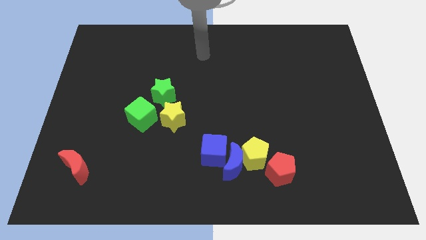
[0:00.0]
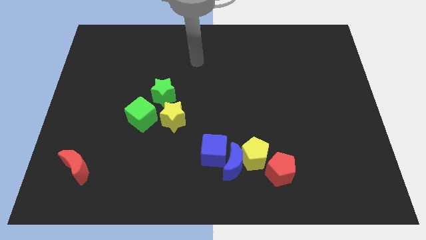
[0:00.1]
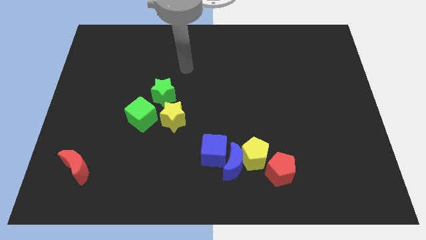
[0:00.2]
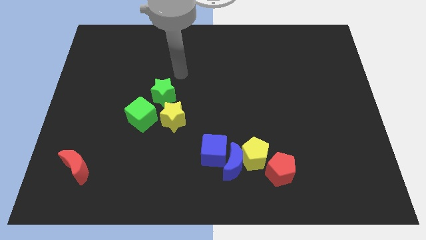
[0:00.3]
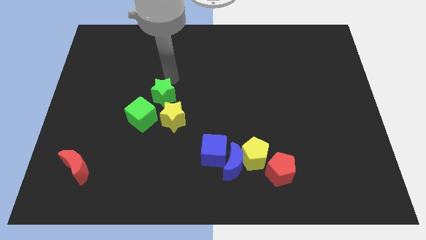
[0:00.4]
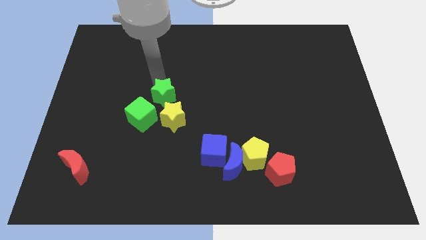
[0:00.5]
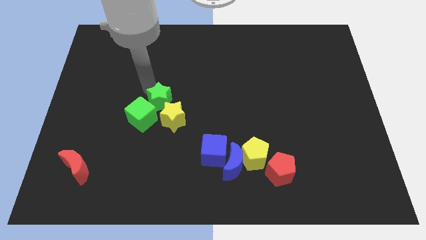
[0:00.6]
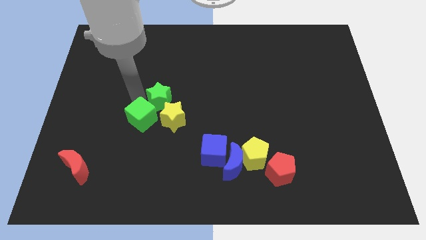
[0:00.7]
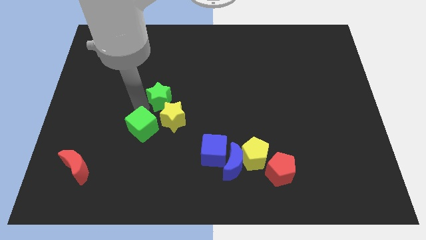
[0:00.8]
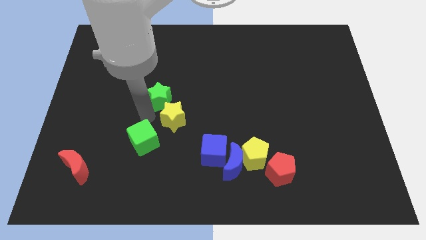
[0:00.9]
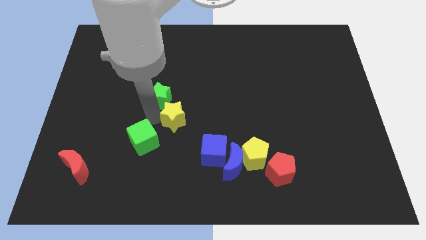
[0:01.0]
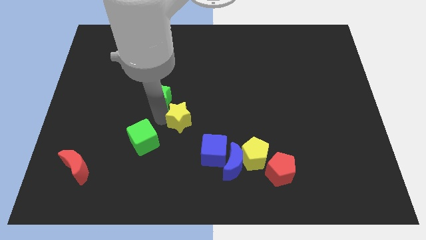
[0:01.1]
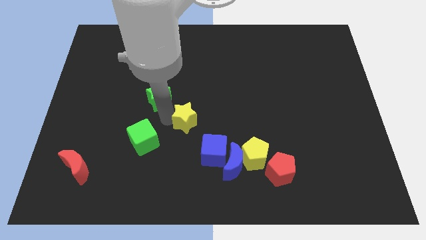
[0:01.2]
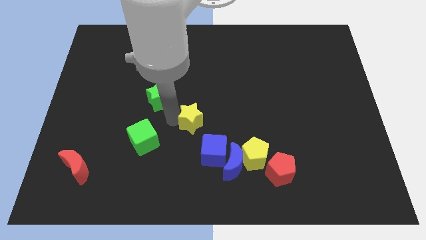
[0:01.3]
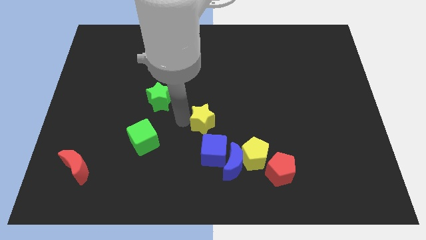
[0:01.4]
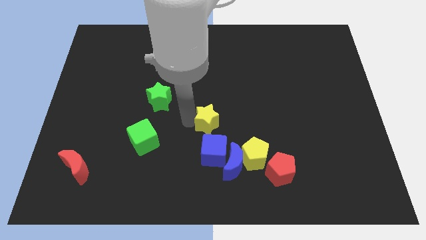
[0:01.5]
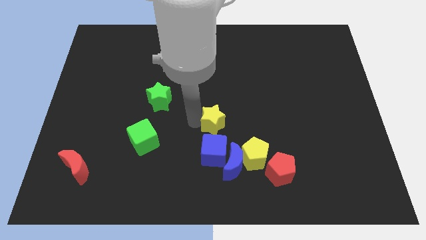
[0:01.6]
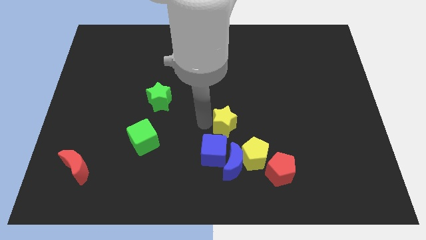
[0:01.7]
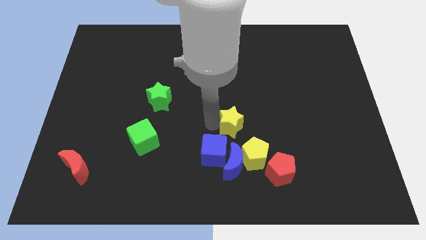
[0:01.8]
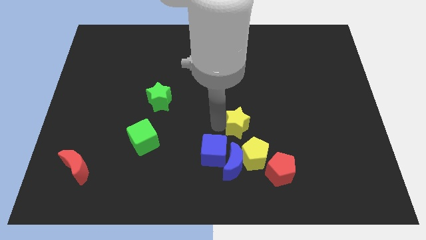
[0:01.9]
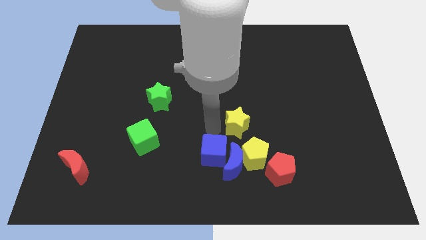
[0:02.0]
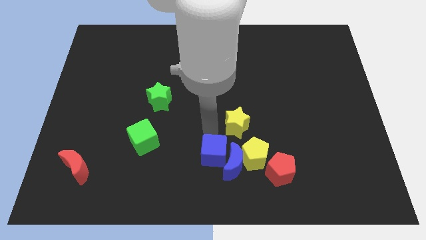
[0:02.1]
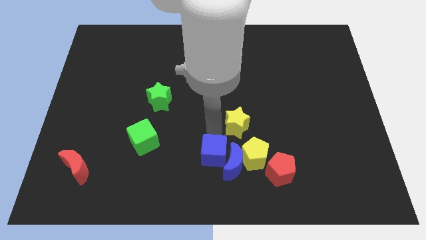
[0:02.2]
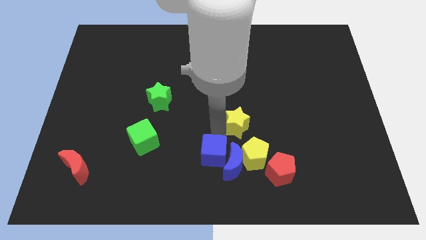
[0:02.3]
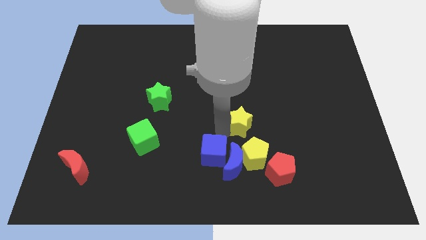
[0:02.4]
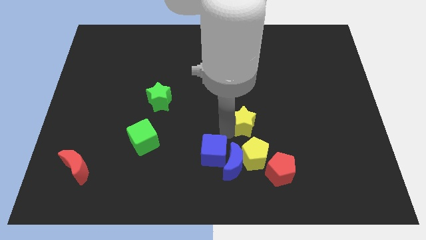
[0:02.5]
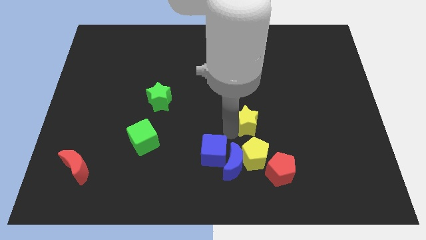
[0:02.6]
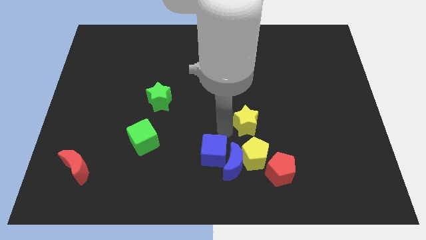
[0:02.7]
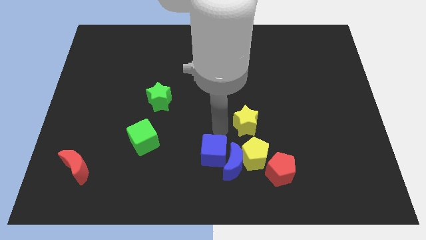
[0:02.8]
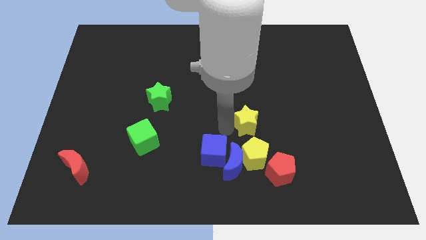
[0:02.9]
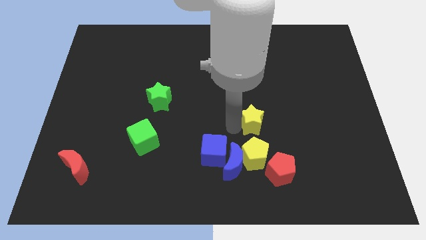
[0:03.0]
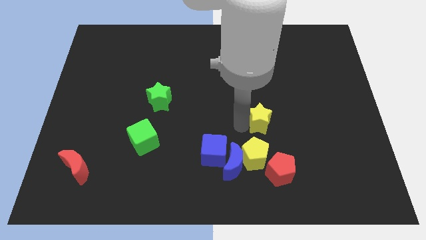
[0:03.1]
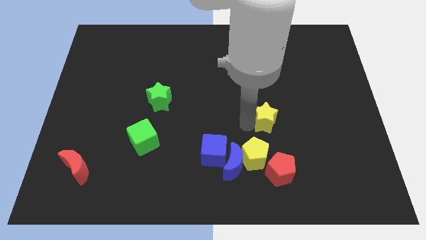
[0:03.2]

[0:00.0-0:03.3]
push the yellow star right

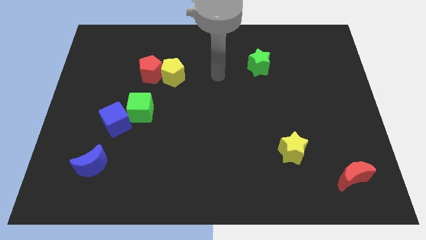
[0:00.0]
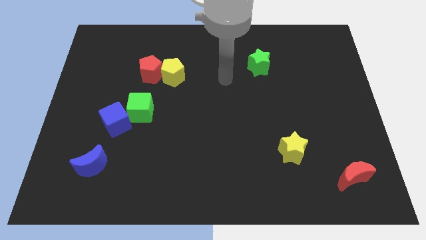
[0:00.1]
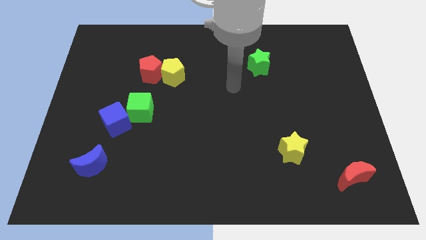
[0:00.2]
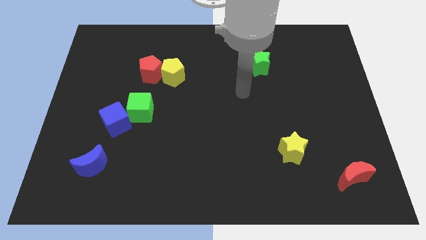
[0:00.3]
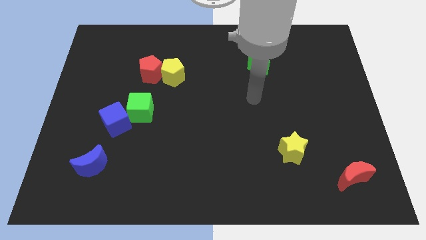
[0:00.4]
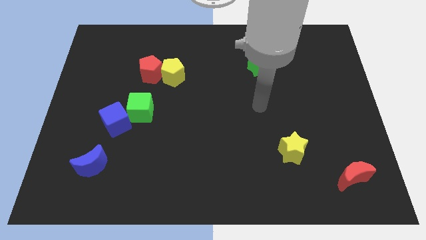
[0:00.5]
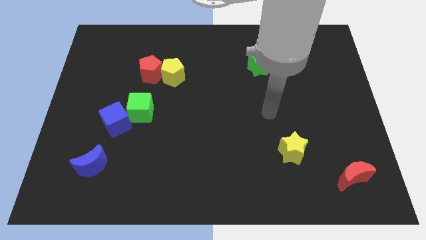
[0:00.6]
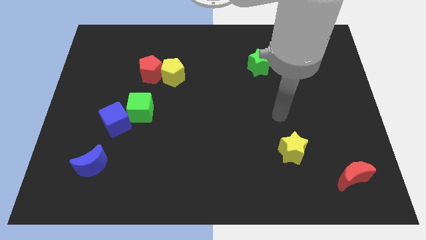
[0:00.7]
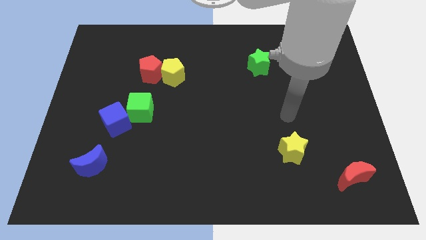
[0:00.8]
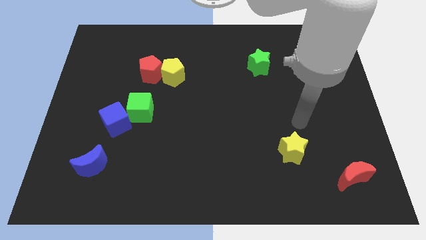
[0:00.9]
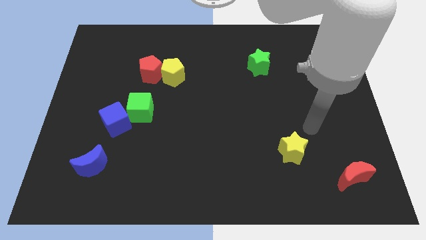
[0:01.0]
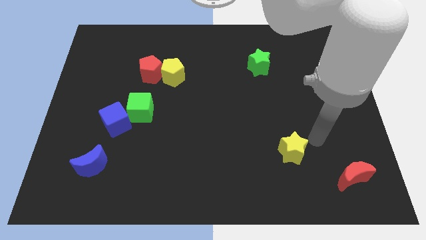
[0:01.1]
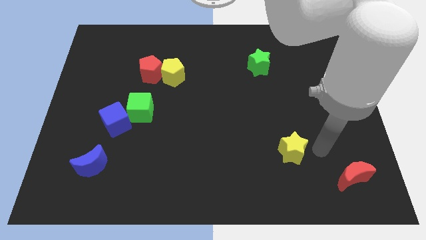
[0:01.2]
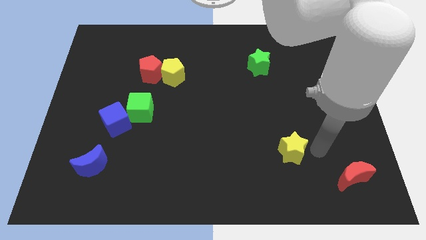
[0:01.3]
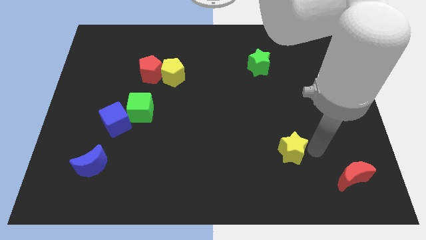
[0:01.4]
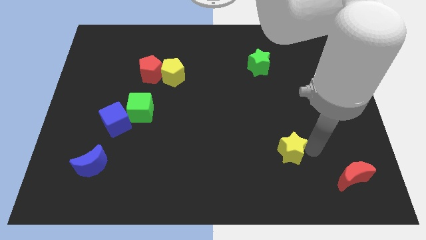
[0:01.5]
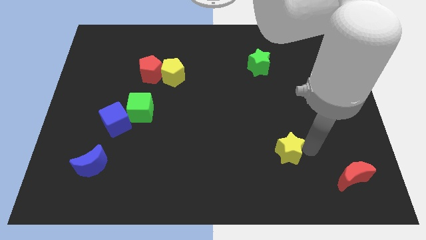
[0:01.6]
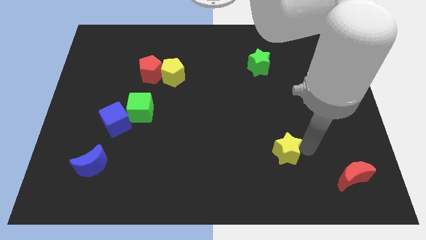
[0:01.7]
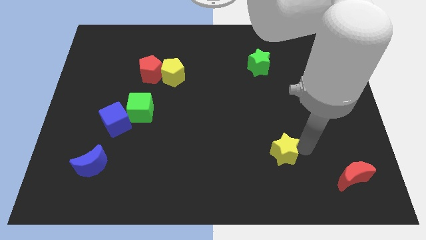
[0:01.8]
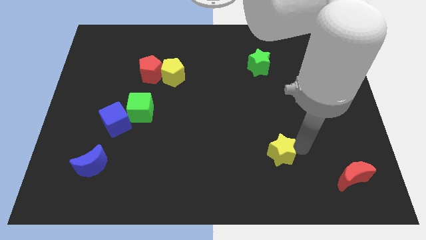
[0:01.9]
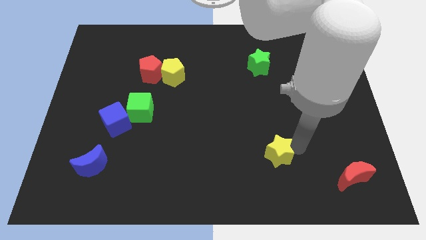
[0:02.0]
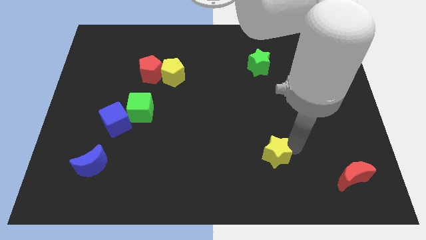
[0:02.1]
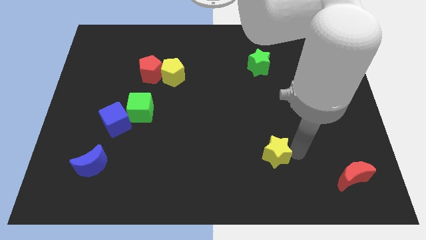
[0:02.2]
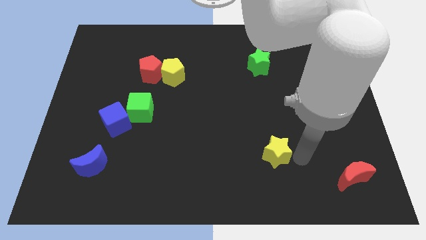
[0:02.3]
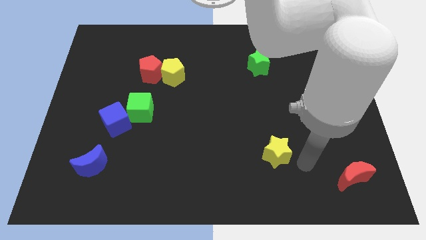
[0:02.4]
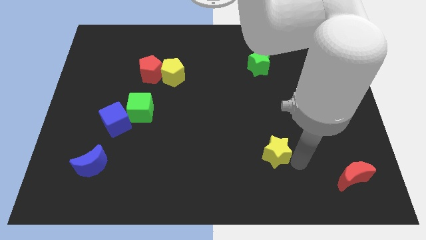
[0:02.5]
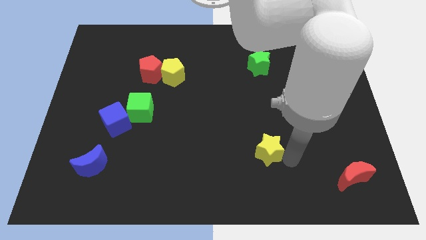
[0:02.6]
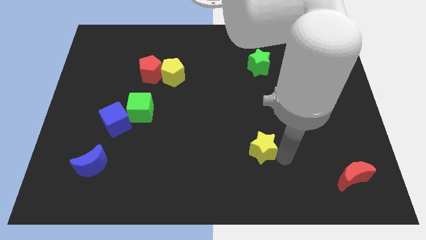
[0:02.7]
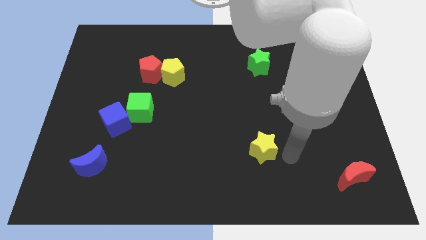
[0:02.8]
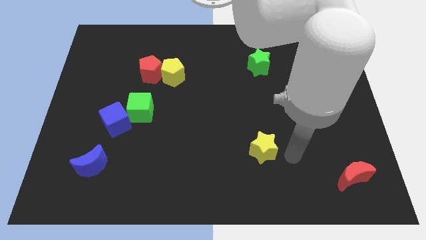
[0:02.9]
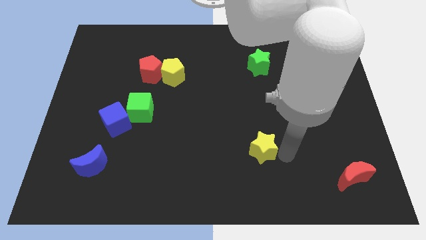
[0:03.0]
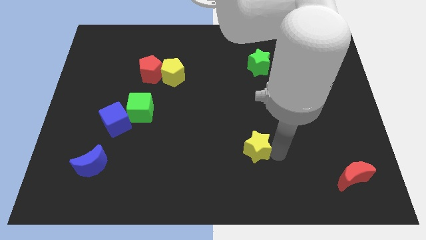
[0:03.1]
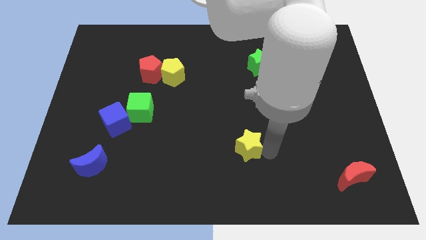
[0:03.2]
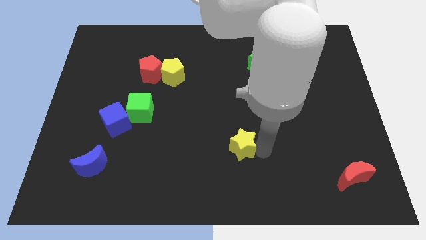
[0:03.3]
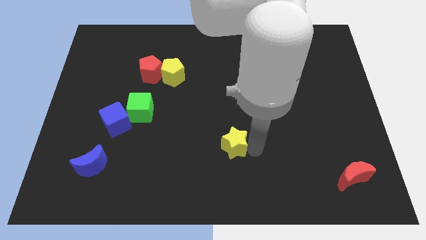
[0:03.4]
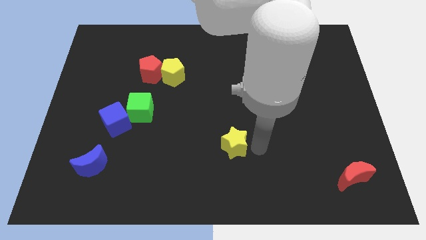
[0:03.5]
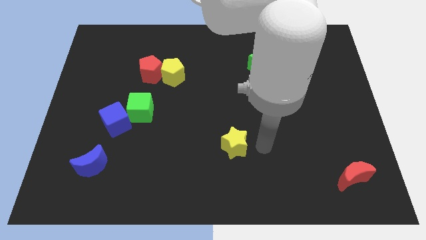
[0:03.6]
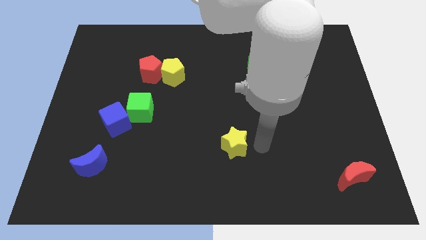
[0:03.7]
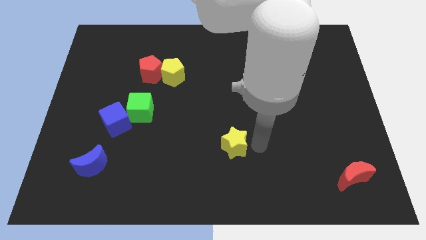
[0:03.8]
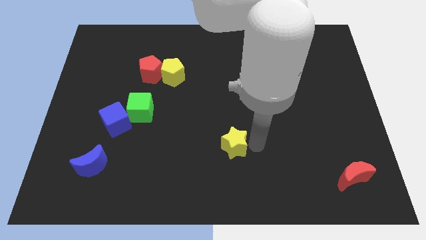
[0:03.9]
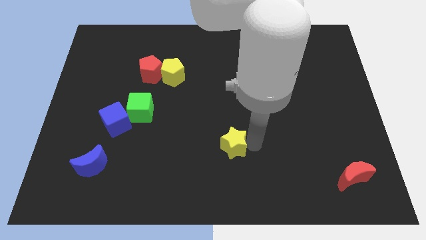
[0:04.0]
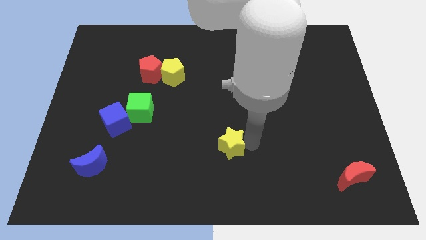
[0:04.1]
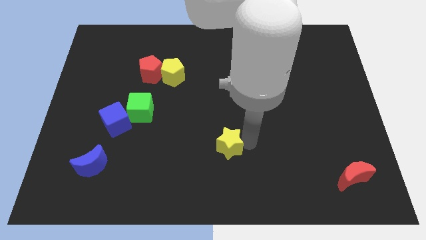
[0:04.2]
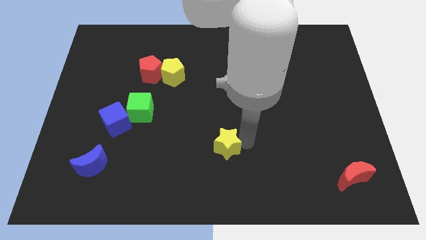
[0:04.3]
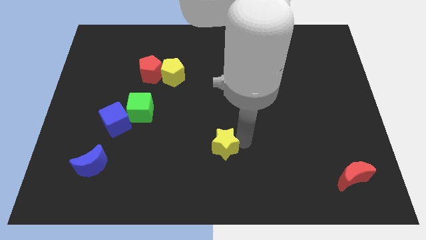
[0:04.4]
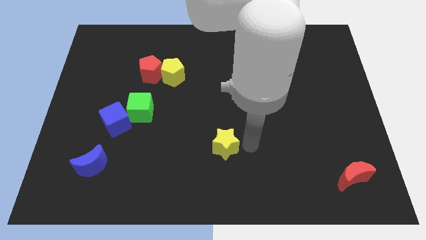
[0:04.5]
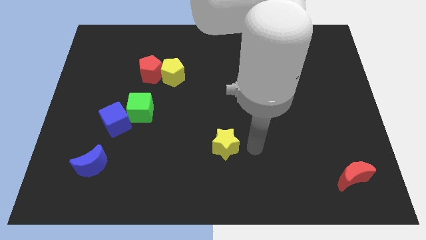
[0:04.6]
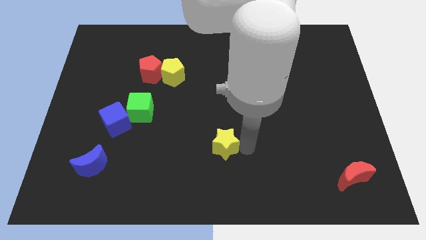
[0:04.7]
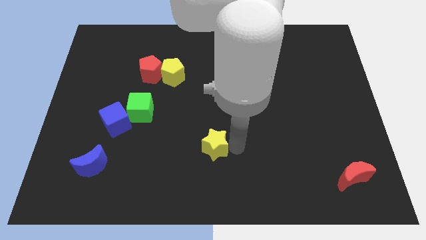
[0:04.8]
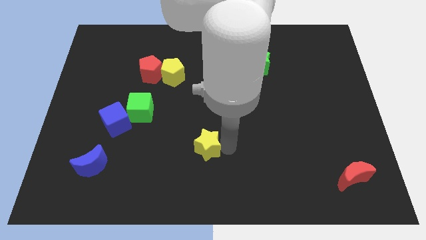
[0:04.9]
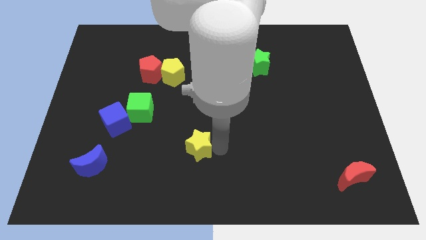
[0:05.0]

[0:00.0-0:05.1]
push the yellow star left

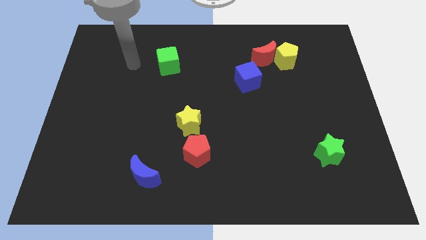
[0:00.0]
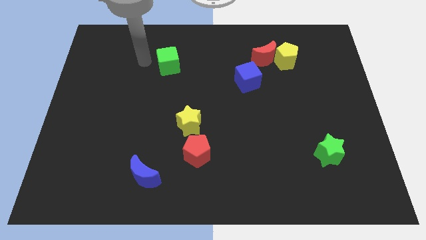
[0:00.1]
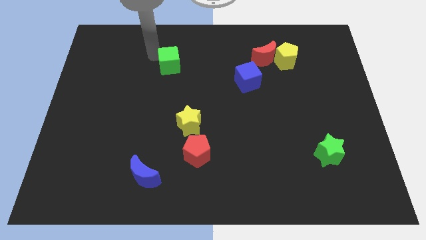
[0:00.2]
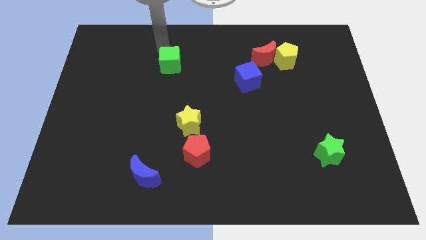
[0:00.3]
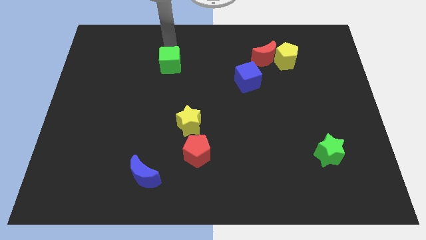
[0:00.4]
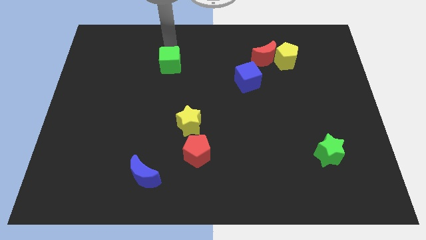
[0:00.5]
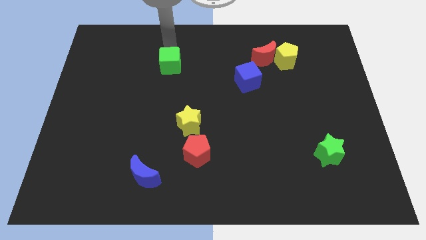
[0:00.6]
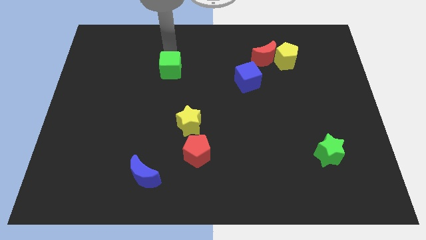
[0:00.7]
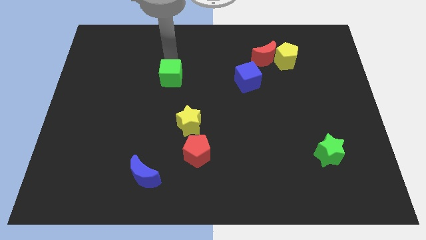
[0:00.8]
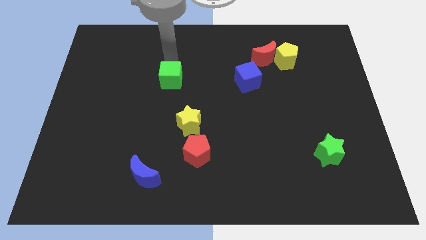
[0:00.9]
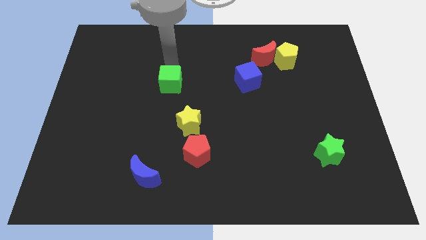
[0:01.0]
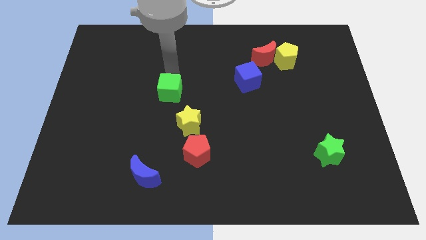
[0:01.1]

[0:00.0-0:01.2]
slightly slide the green cube downwards
